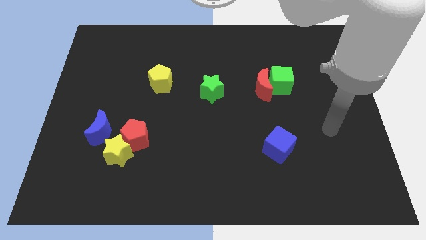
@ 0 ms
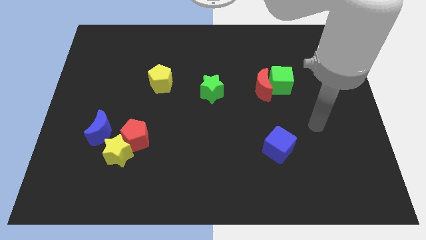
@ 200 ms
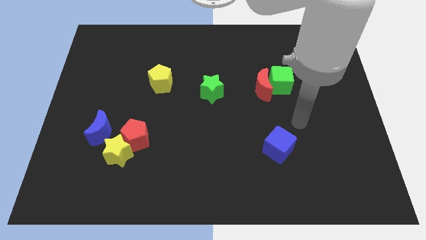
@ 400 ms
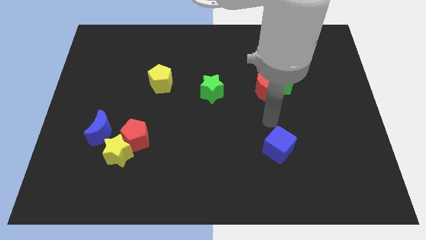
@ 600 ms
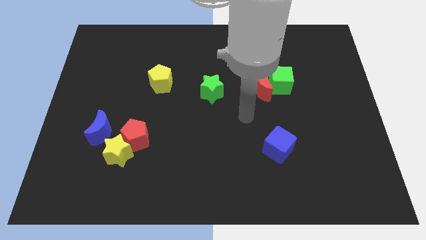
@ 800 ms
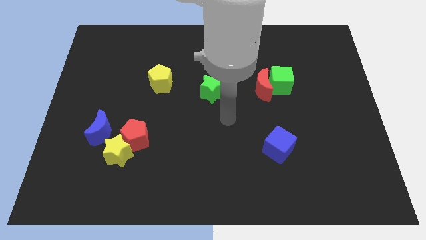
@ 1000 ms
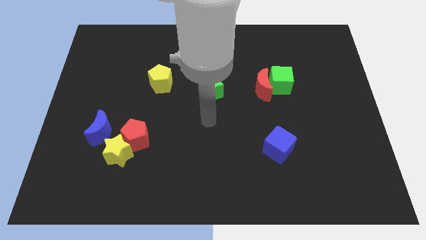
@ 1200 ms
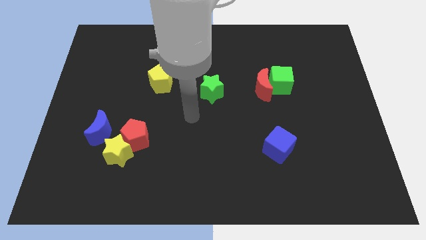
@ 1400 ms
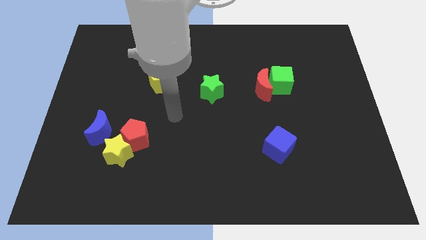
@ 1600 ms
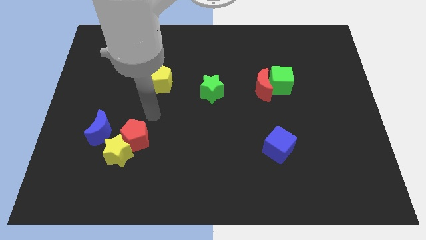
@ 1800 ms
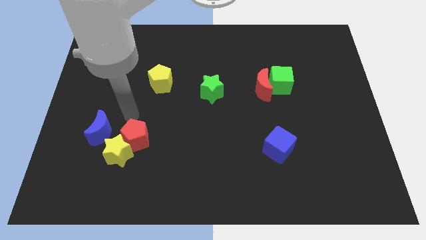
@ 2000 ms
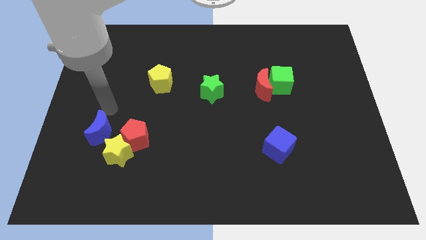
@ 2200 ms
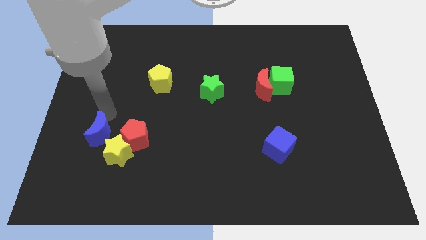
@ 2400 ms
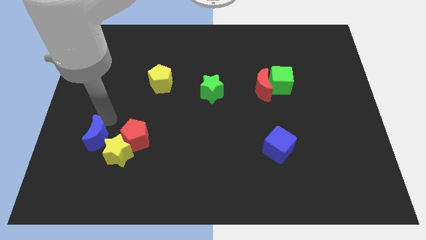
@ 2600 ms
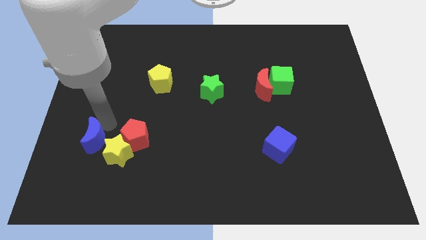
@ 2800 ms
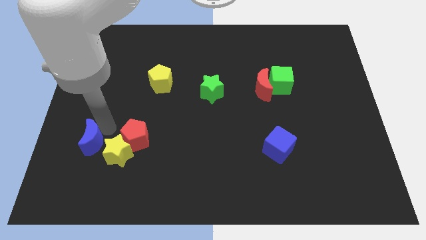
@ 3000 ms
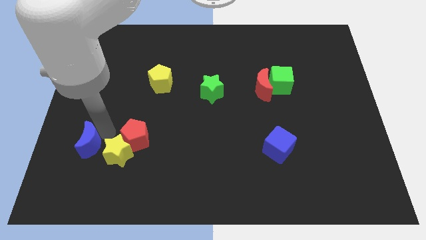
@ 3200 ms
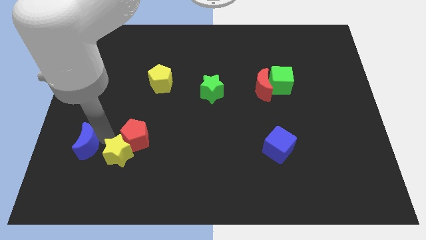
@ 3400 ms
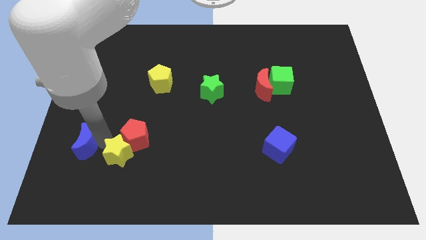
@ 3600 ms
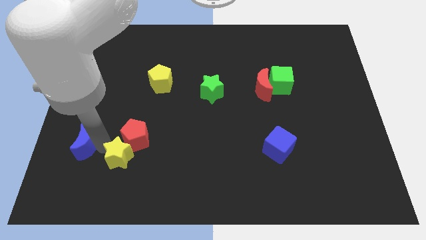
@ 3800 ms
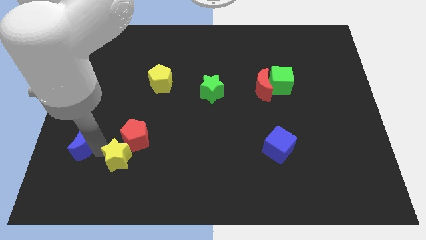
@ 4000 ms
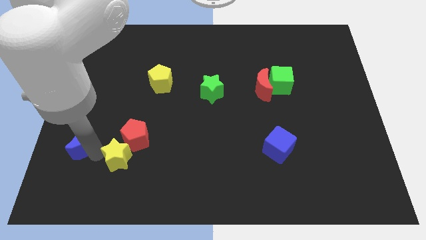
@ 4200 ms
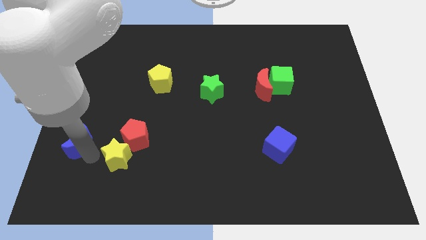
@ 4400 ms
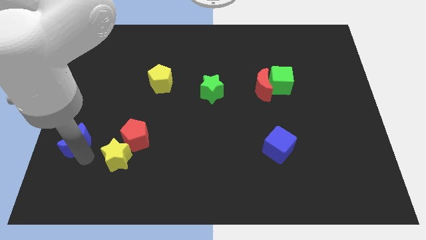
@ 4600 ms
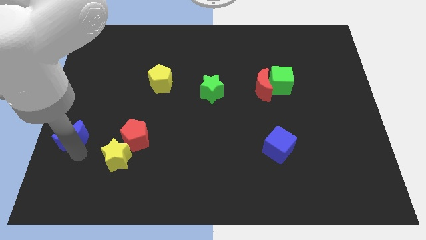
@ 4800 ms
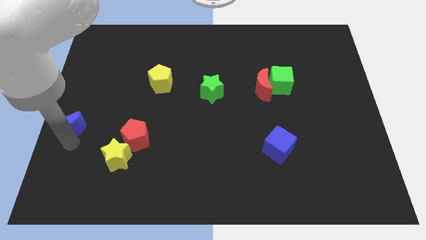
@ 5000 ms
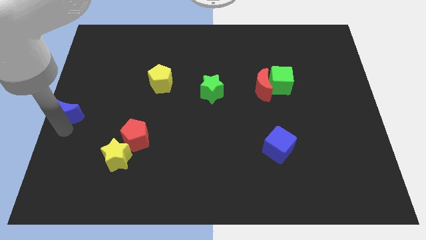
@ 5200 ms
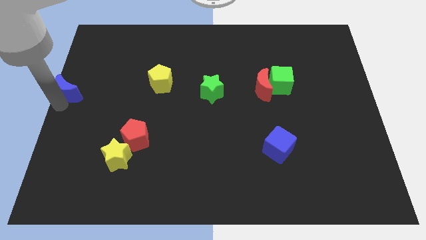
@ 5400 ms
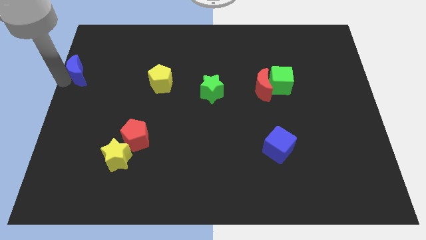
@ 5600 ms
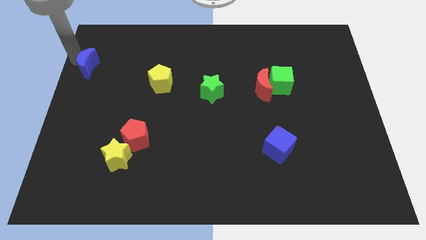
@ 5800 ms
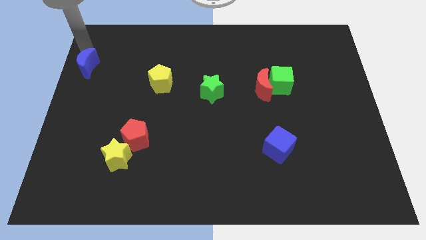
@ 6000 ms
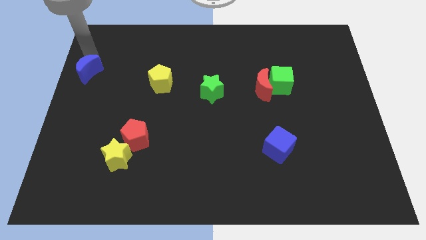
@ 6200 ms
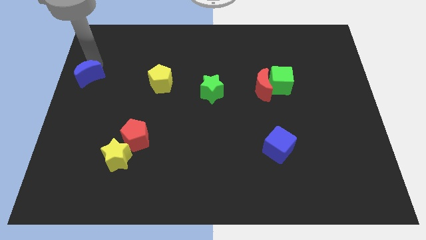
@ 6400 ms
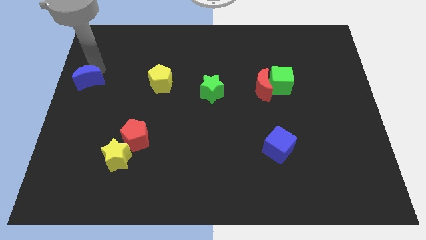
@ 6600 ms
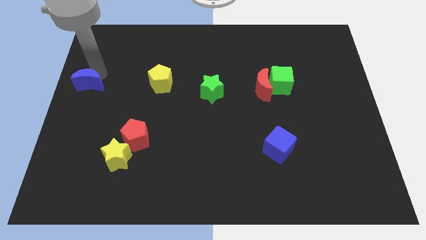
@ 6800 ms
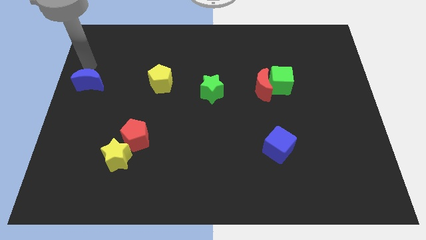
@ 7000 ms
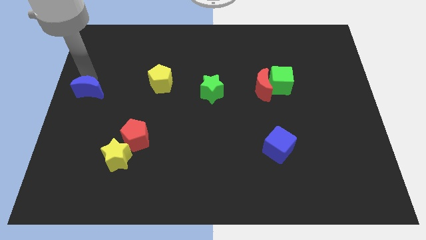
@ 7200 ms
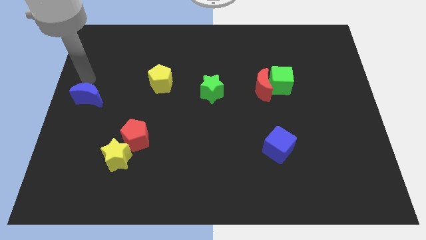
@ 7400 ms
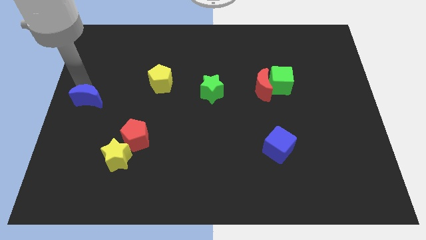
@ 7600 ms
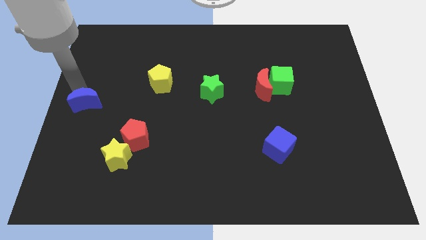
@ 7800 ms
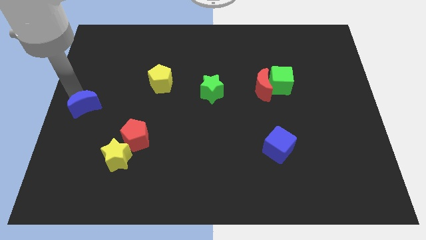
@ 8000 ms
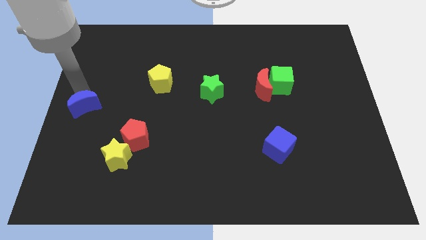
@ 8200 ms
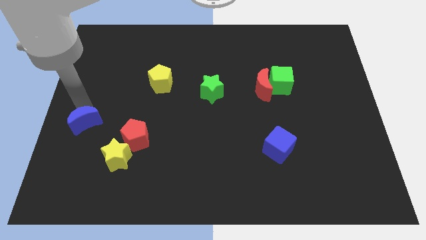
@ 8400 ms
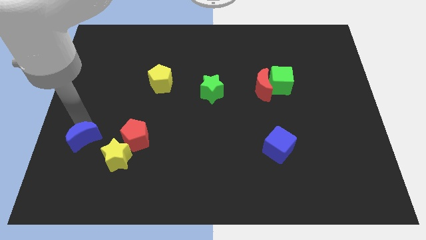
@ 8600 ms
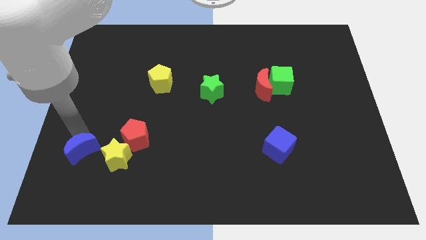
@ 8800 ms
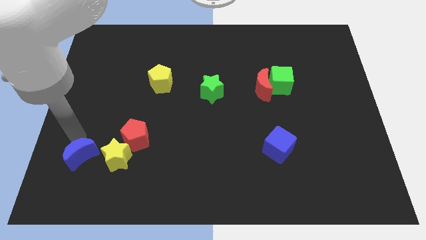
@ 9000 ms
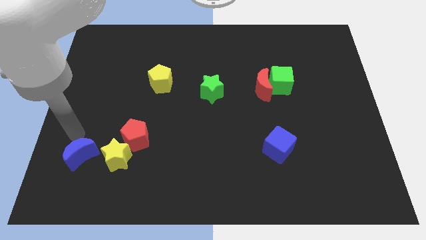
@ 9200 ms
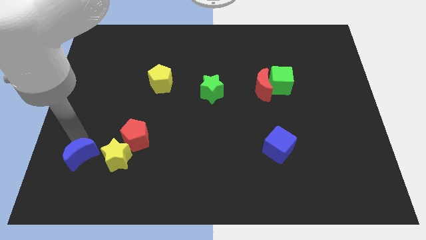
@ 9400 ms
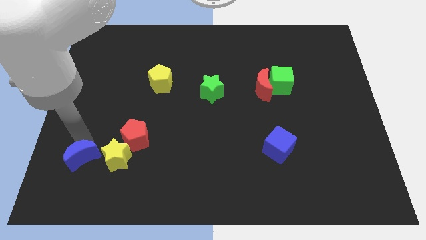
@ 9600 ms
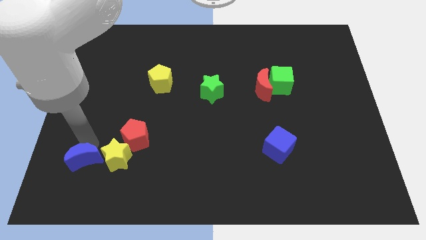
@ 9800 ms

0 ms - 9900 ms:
slide the blue moon to the bottom left of the yellow star

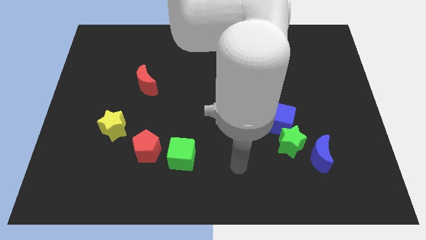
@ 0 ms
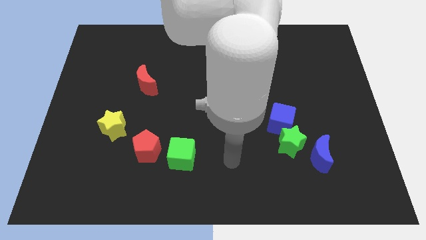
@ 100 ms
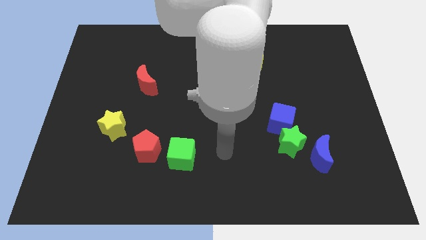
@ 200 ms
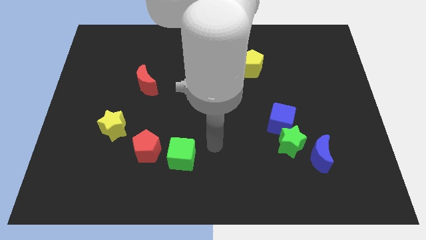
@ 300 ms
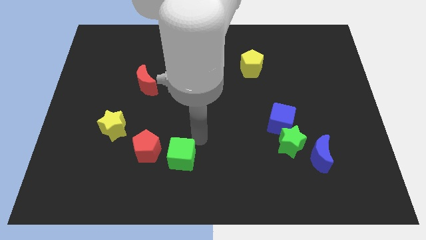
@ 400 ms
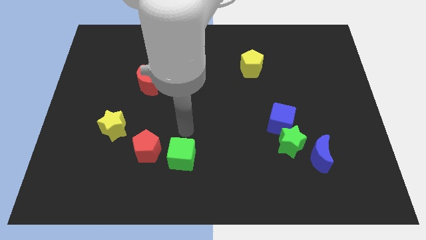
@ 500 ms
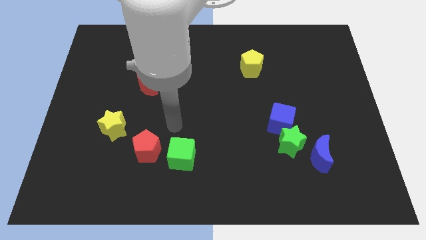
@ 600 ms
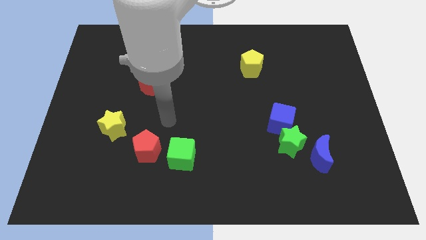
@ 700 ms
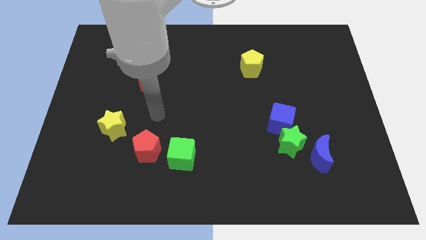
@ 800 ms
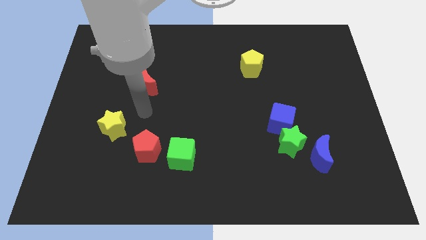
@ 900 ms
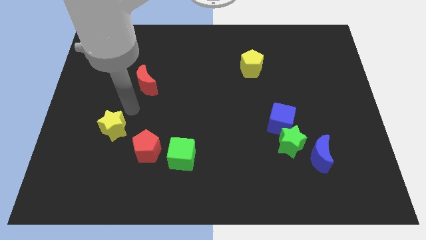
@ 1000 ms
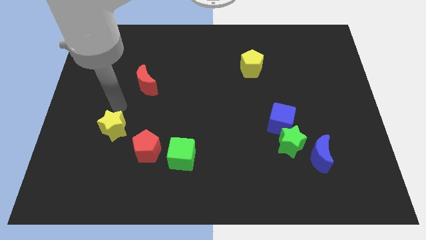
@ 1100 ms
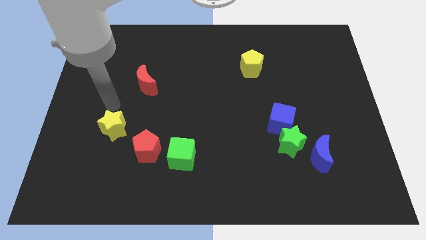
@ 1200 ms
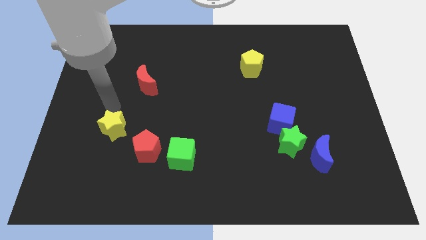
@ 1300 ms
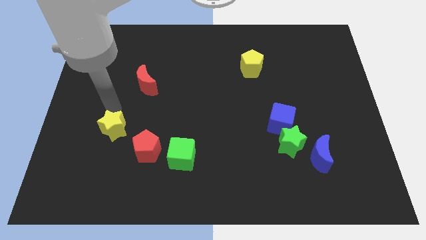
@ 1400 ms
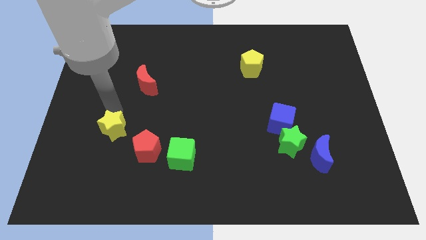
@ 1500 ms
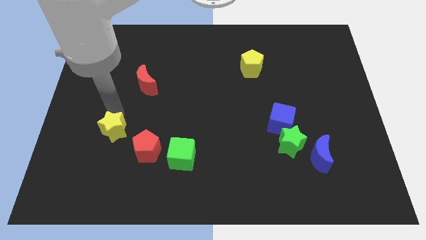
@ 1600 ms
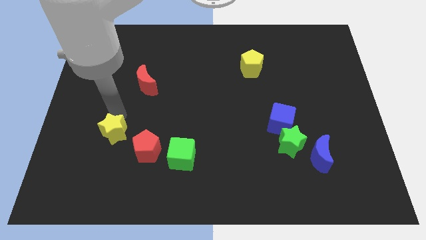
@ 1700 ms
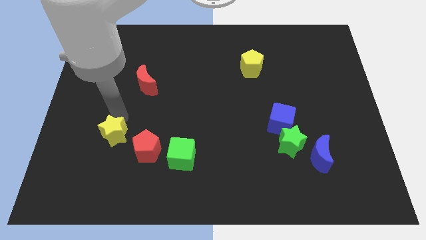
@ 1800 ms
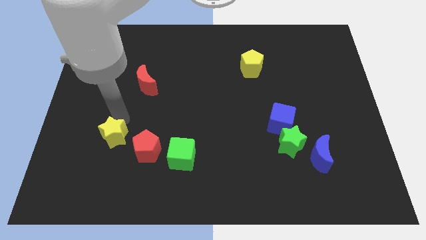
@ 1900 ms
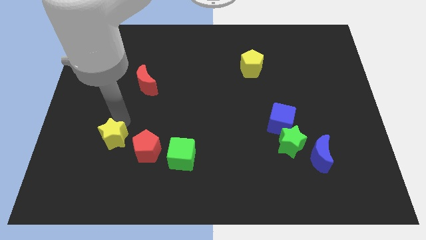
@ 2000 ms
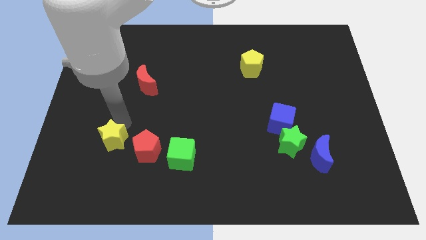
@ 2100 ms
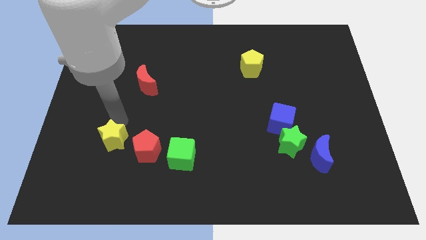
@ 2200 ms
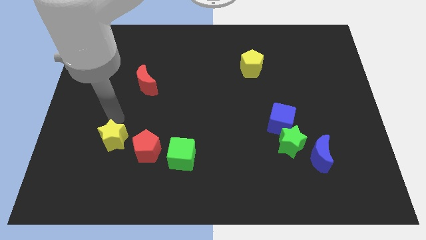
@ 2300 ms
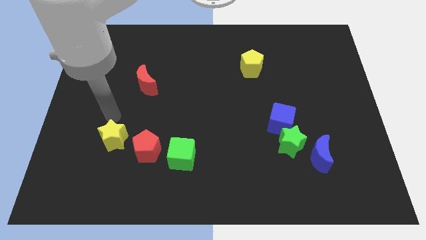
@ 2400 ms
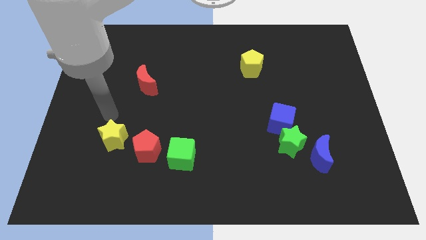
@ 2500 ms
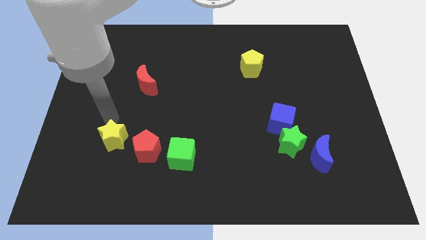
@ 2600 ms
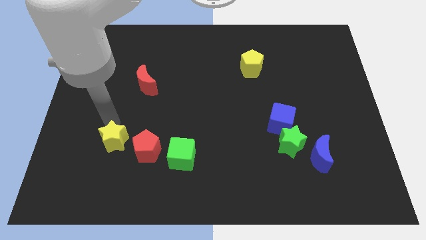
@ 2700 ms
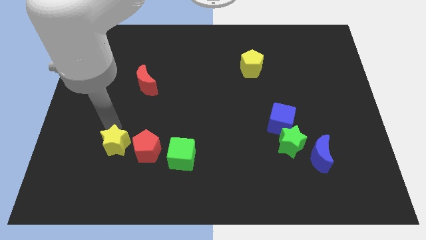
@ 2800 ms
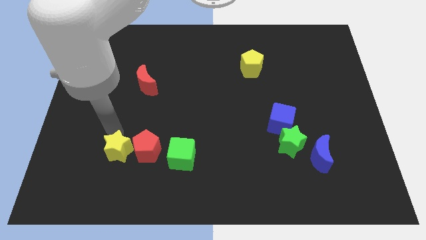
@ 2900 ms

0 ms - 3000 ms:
slide the yellow star to the bottom left of the red pentagon
